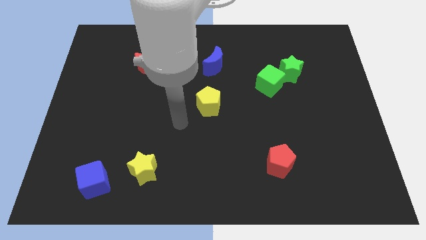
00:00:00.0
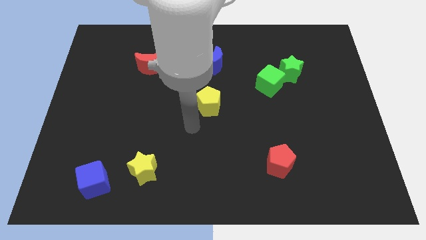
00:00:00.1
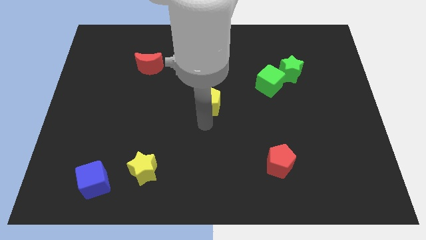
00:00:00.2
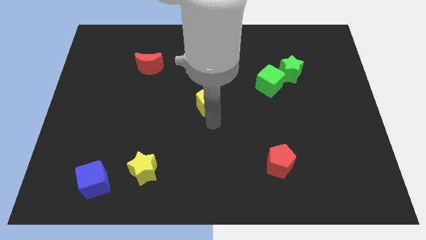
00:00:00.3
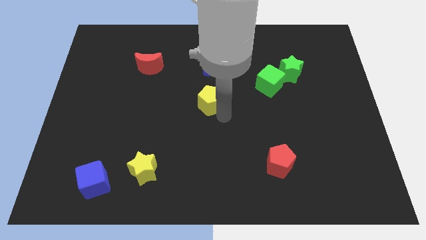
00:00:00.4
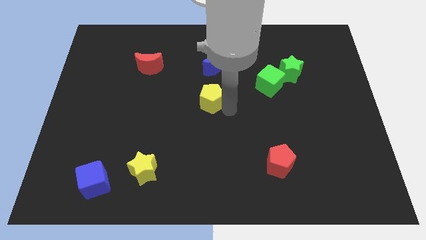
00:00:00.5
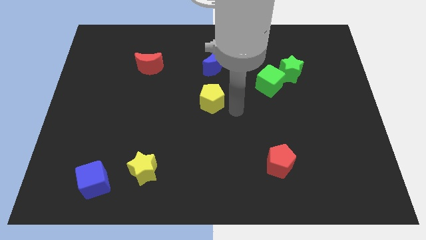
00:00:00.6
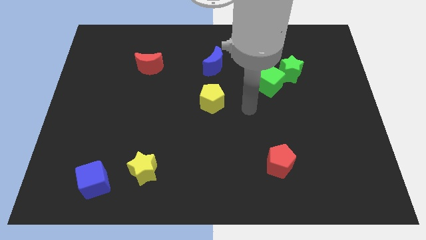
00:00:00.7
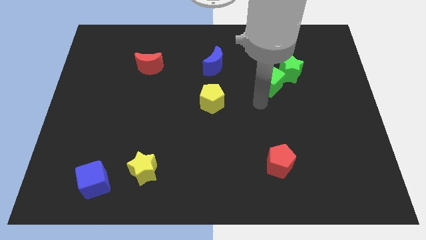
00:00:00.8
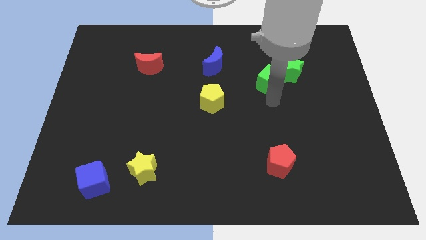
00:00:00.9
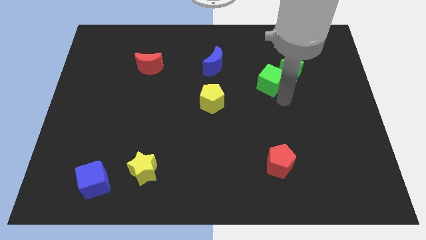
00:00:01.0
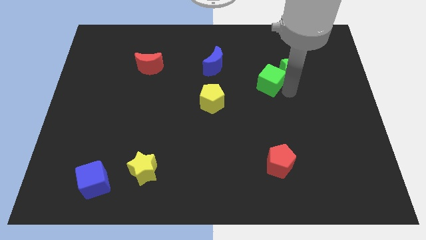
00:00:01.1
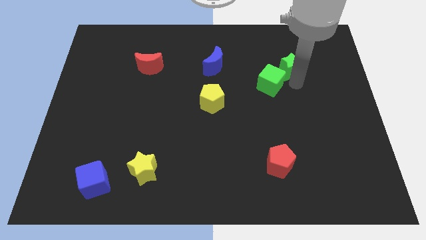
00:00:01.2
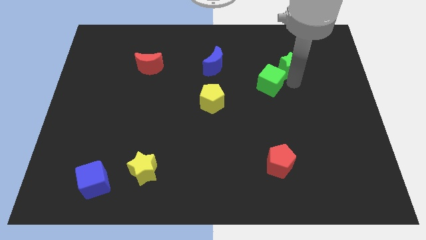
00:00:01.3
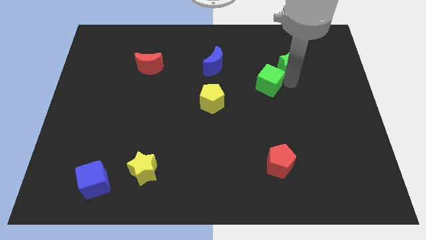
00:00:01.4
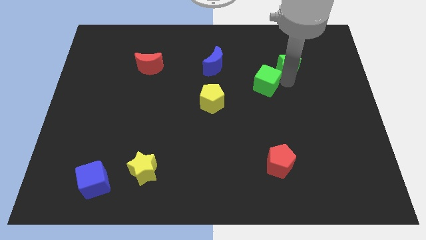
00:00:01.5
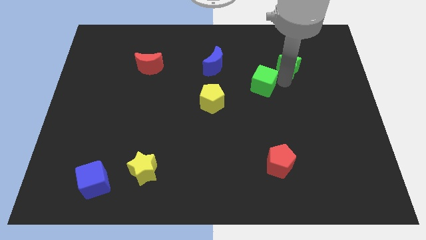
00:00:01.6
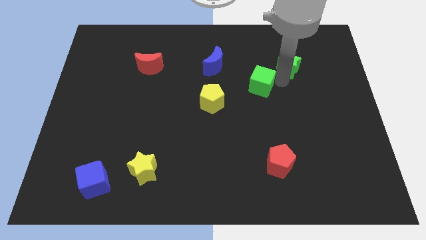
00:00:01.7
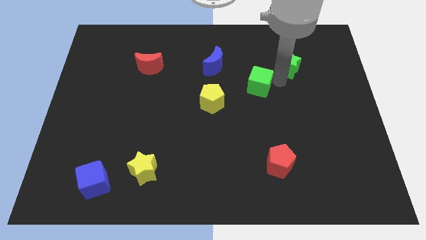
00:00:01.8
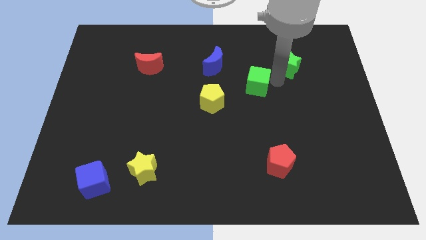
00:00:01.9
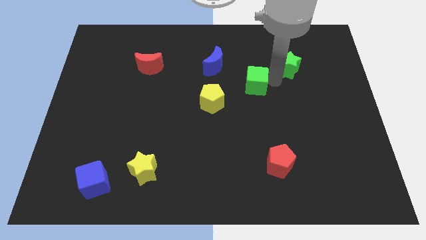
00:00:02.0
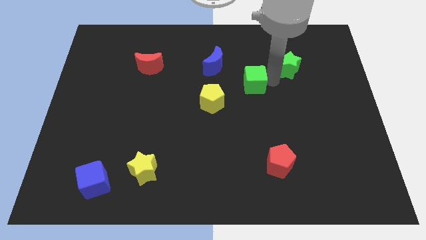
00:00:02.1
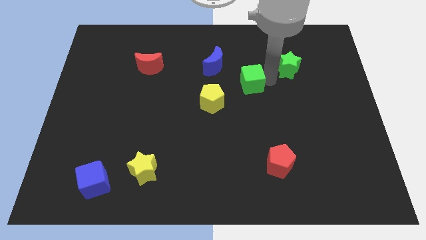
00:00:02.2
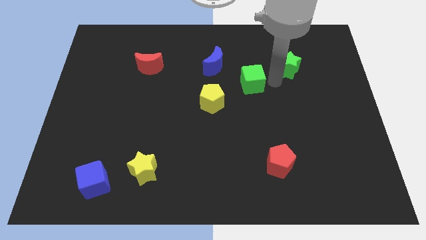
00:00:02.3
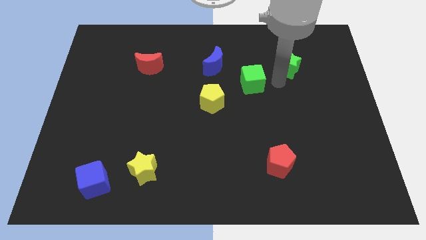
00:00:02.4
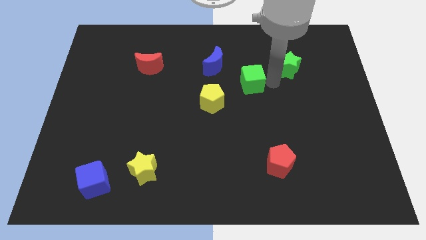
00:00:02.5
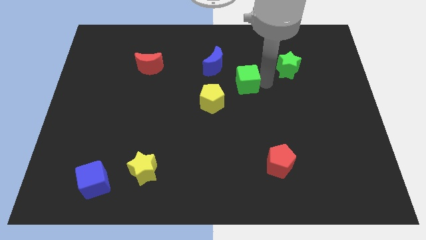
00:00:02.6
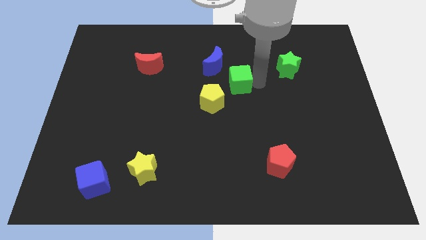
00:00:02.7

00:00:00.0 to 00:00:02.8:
slightly slide the green cube to the left

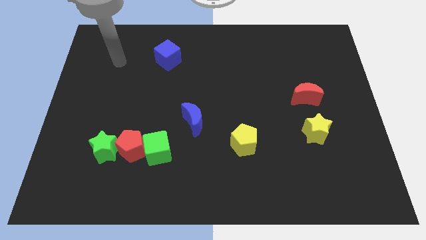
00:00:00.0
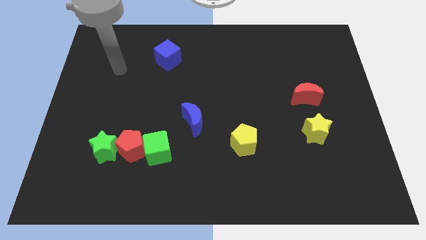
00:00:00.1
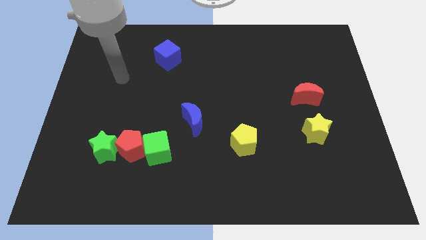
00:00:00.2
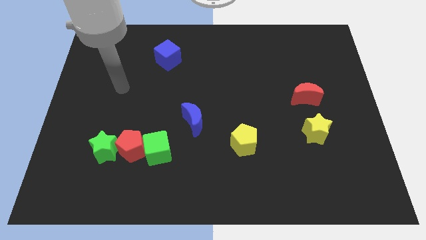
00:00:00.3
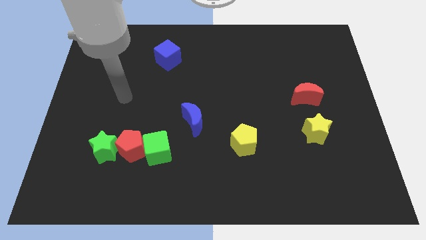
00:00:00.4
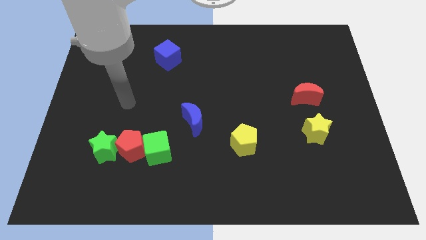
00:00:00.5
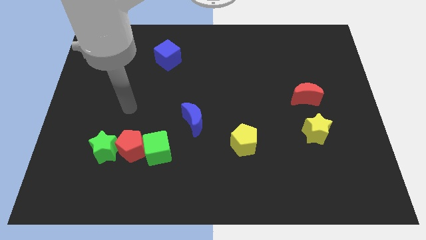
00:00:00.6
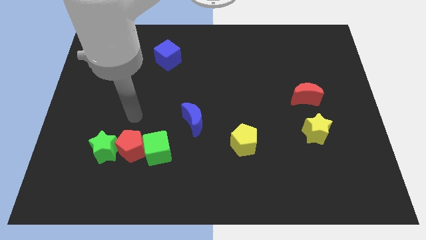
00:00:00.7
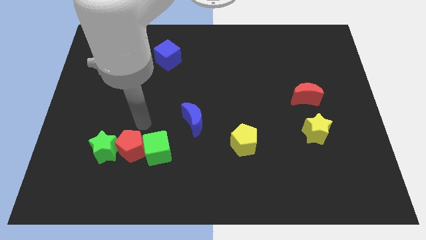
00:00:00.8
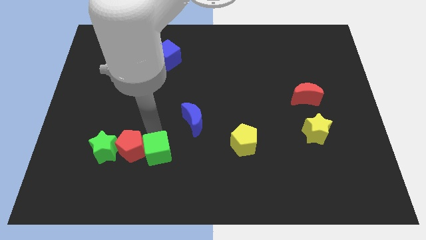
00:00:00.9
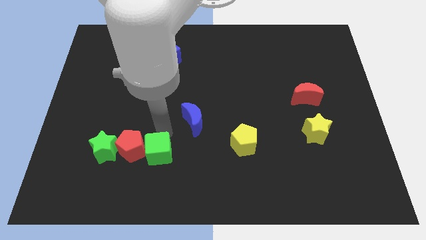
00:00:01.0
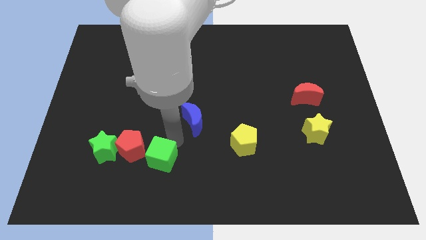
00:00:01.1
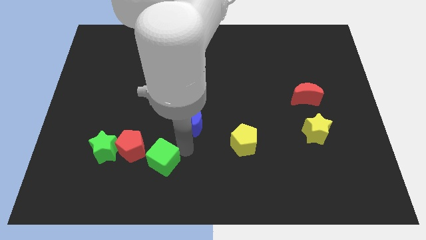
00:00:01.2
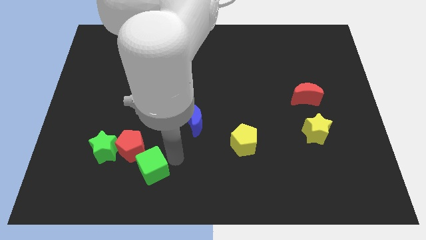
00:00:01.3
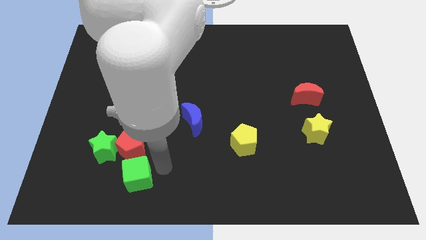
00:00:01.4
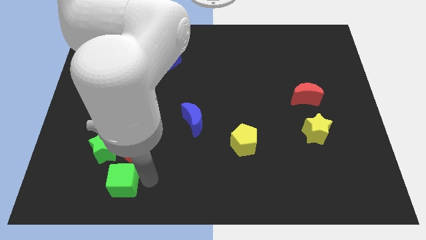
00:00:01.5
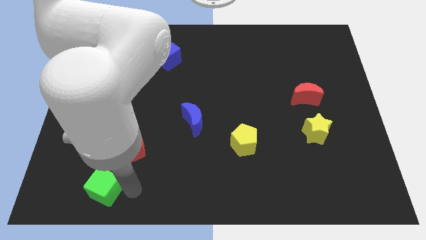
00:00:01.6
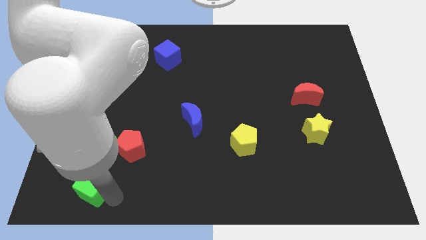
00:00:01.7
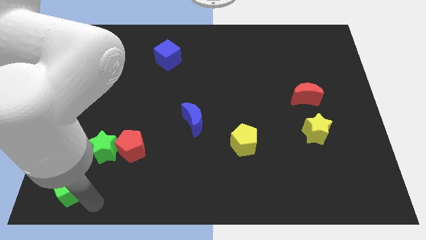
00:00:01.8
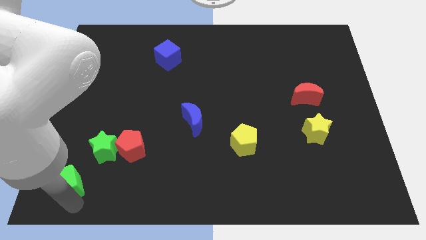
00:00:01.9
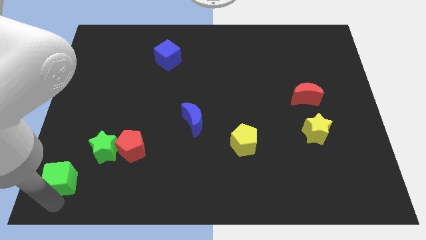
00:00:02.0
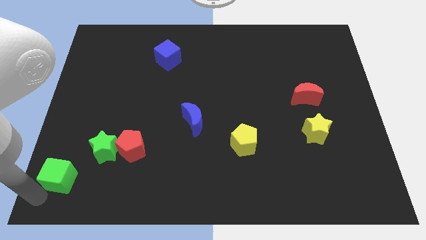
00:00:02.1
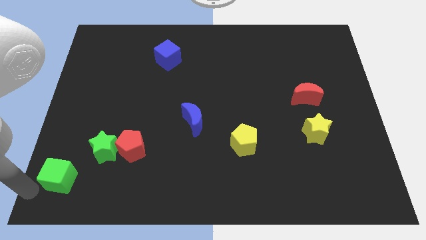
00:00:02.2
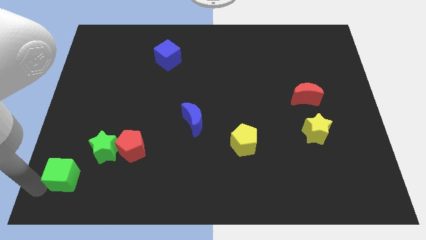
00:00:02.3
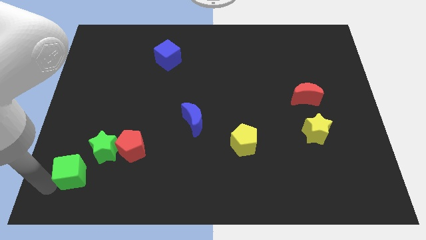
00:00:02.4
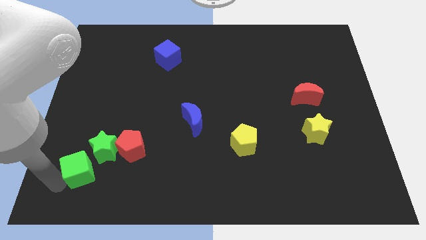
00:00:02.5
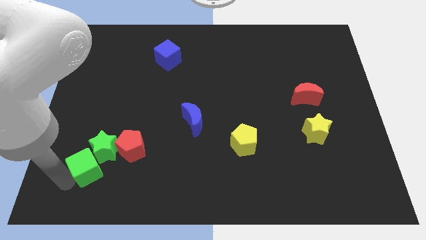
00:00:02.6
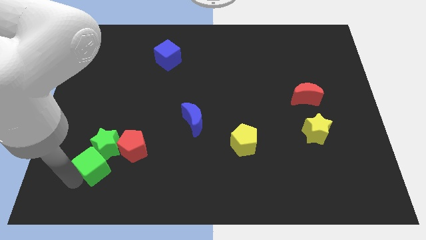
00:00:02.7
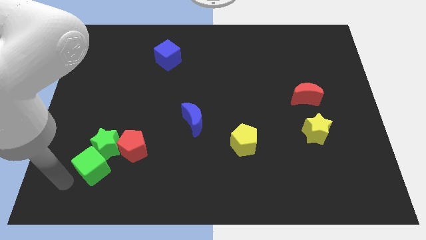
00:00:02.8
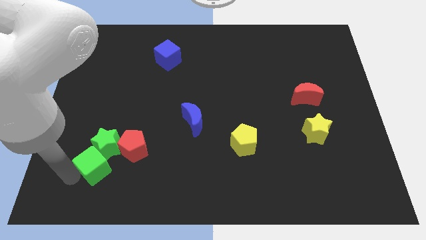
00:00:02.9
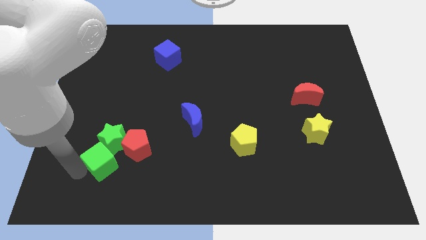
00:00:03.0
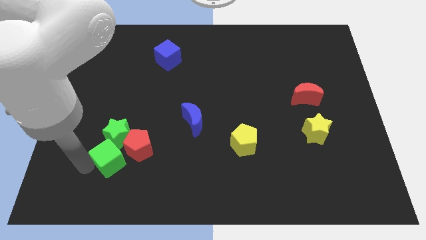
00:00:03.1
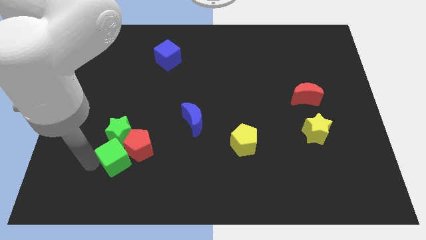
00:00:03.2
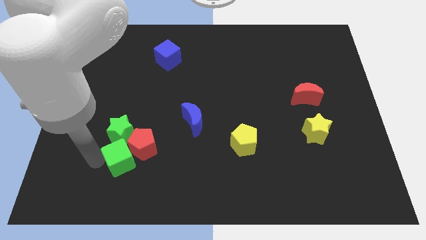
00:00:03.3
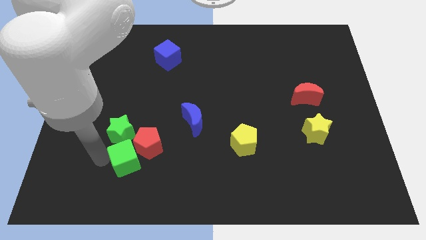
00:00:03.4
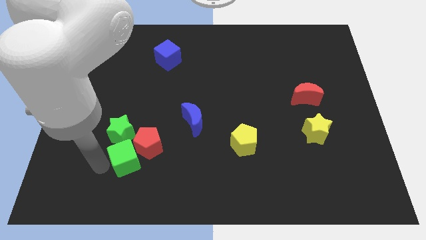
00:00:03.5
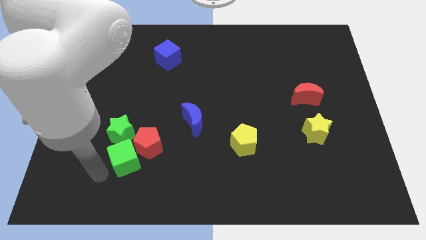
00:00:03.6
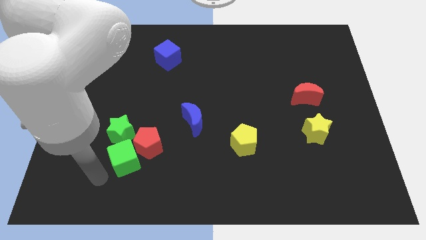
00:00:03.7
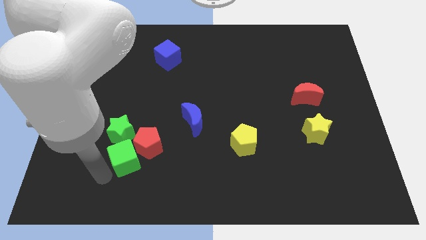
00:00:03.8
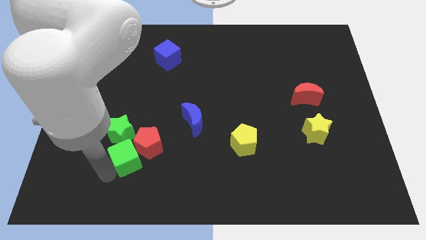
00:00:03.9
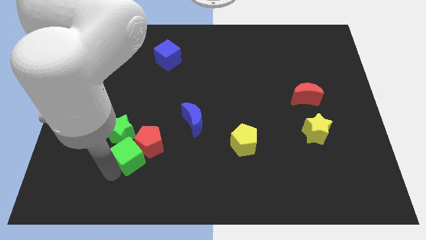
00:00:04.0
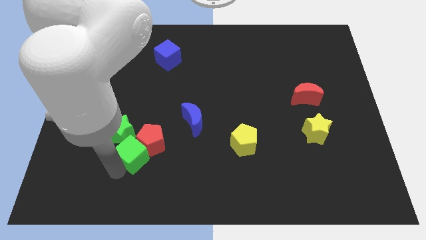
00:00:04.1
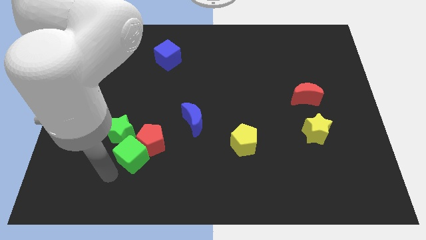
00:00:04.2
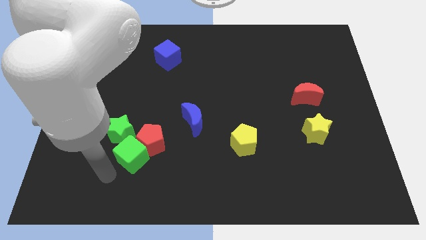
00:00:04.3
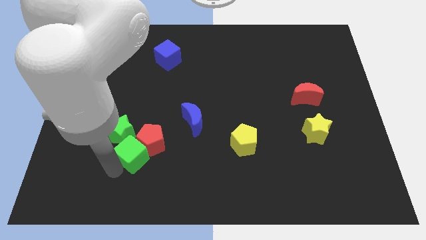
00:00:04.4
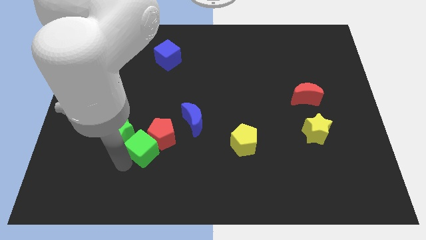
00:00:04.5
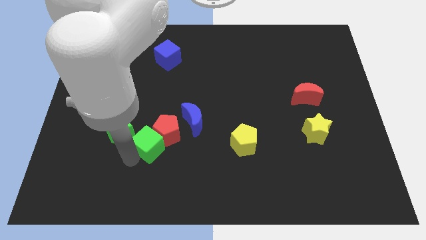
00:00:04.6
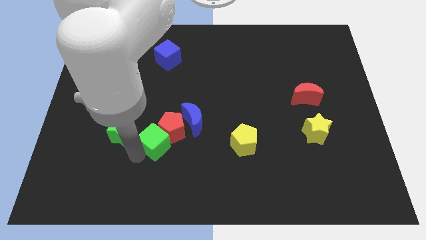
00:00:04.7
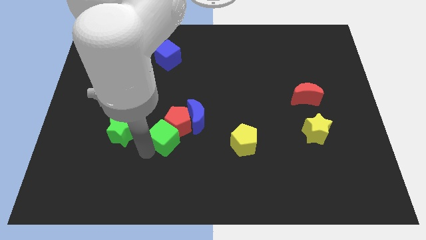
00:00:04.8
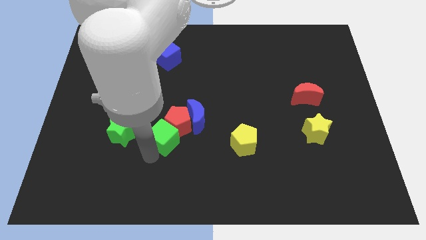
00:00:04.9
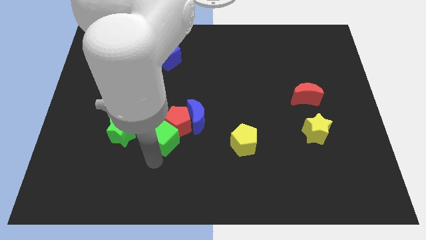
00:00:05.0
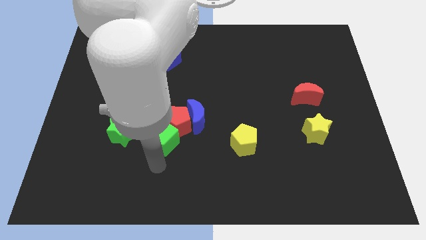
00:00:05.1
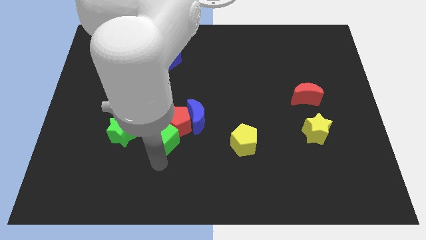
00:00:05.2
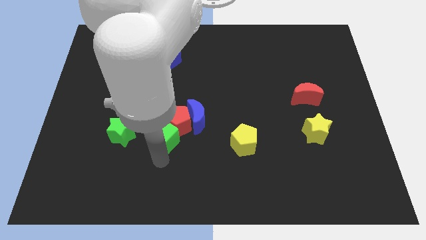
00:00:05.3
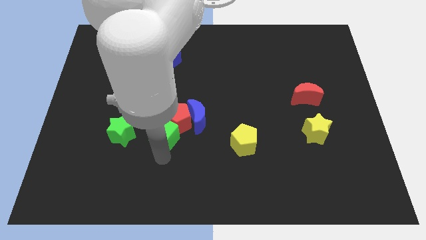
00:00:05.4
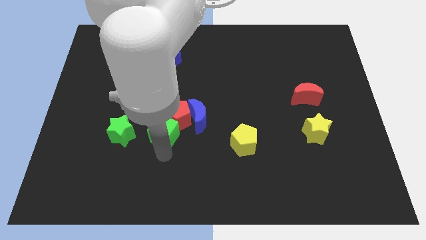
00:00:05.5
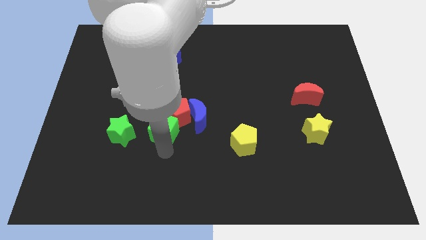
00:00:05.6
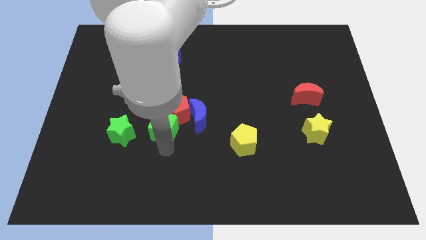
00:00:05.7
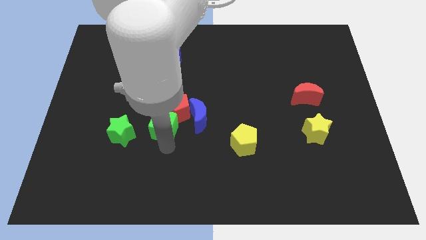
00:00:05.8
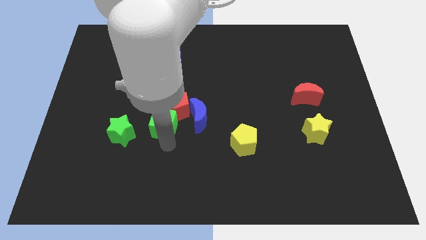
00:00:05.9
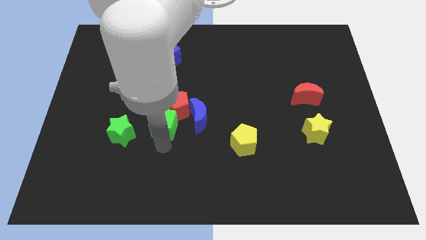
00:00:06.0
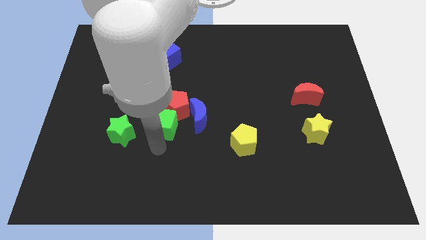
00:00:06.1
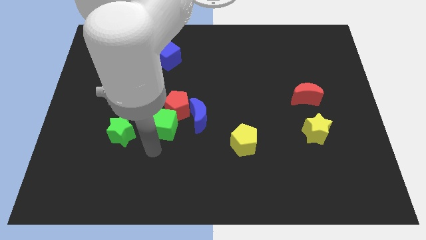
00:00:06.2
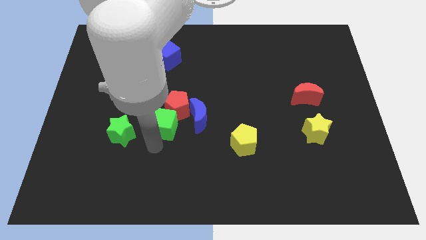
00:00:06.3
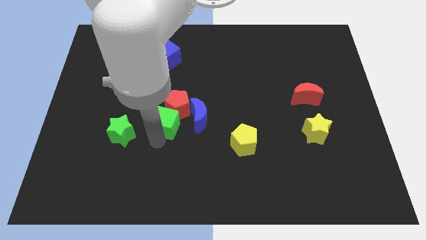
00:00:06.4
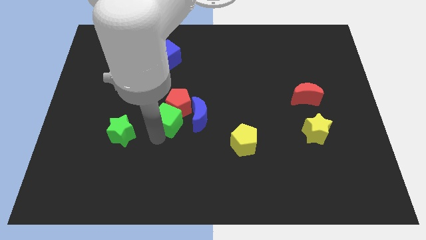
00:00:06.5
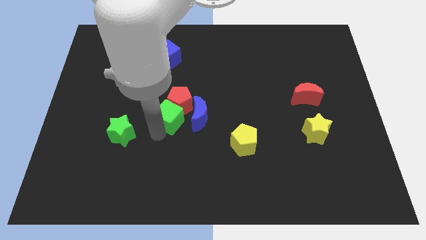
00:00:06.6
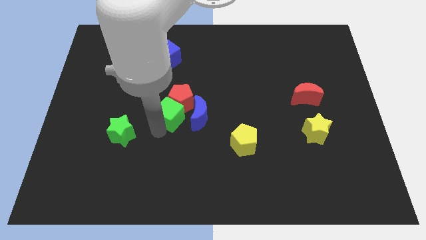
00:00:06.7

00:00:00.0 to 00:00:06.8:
slightly slide the green cube up and right diagonally
